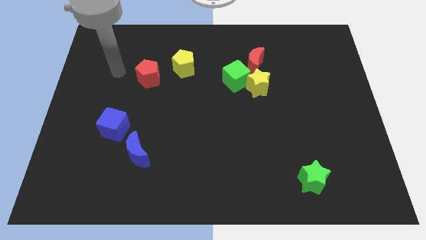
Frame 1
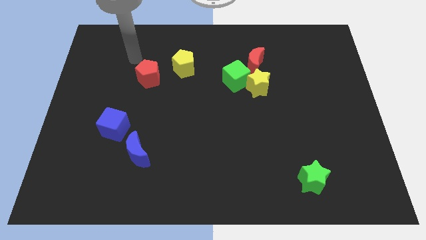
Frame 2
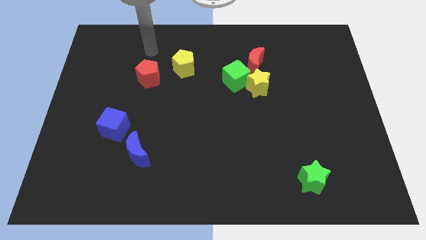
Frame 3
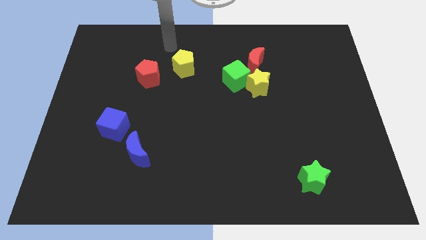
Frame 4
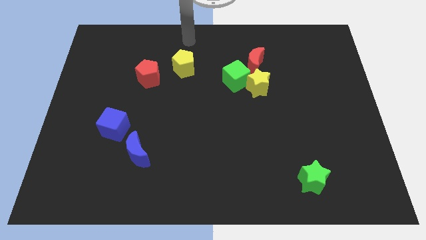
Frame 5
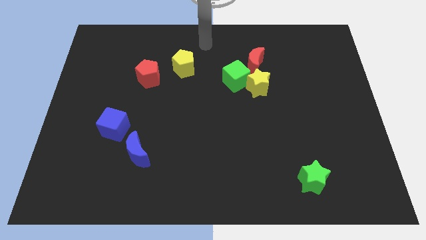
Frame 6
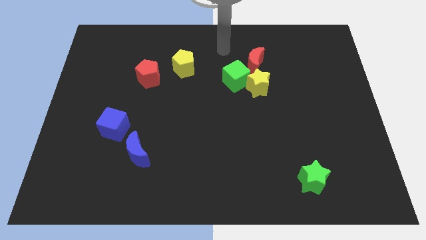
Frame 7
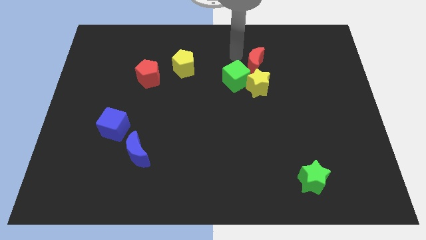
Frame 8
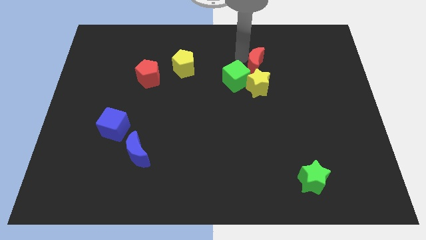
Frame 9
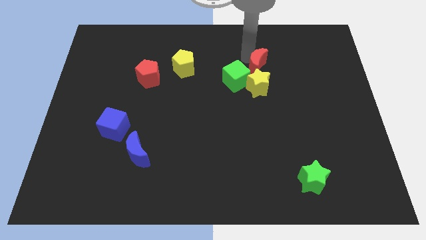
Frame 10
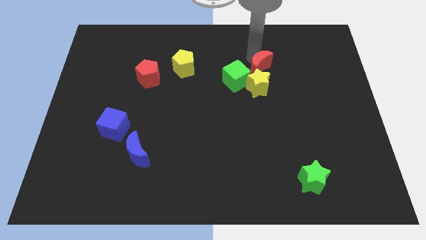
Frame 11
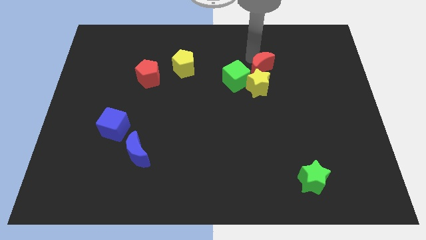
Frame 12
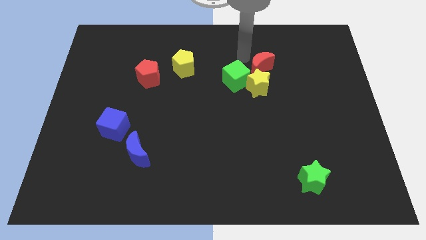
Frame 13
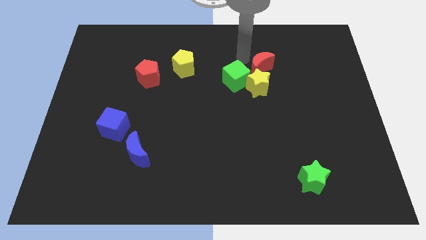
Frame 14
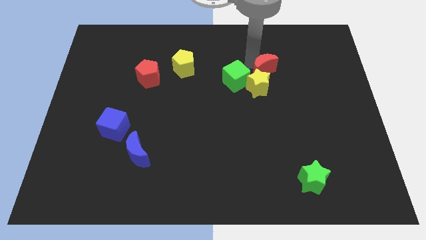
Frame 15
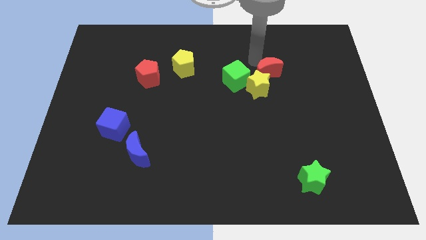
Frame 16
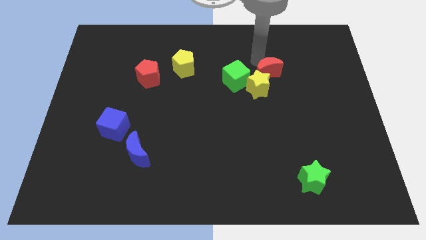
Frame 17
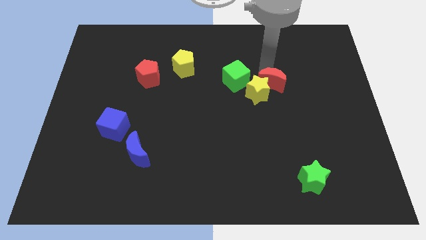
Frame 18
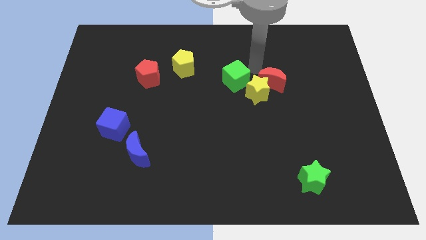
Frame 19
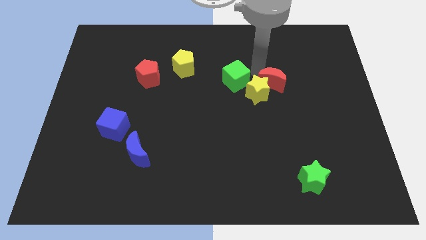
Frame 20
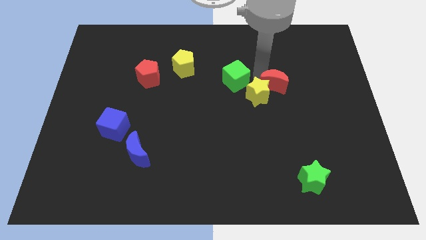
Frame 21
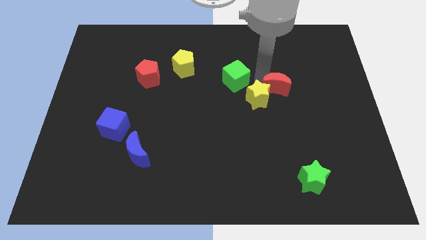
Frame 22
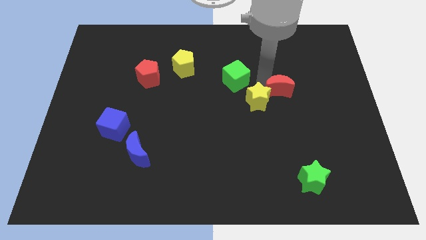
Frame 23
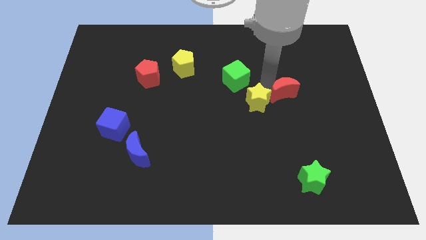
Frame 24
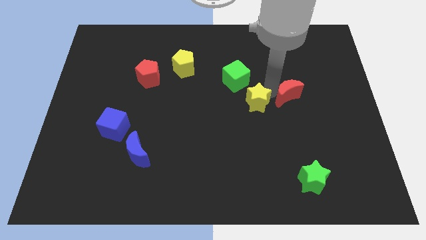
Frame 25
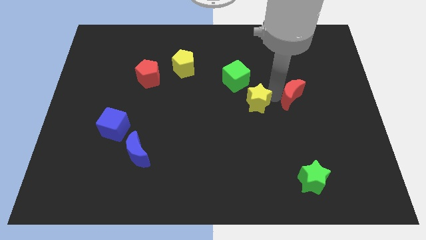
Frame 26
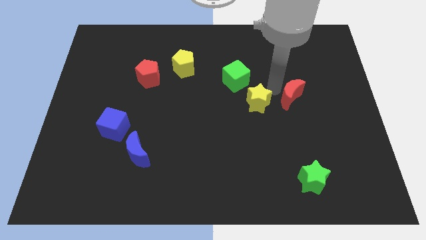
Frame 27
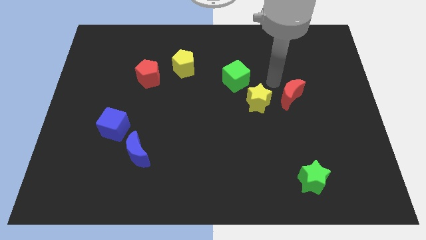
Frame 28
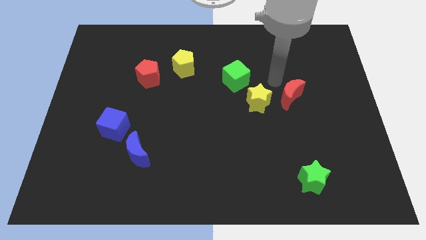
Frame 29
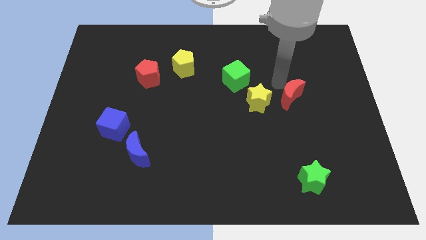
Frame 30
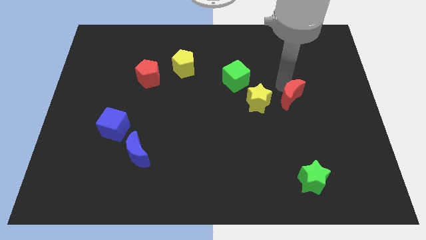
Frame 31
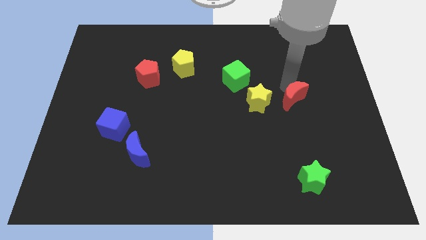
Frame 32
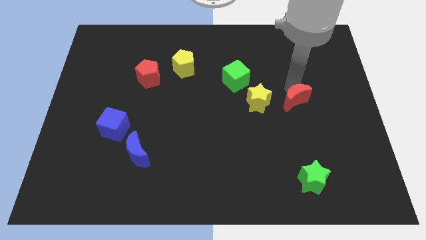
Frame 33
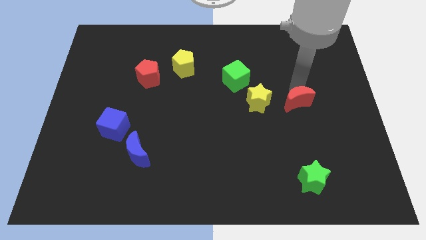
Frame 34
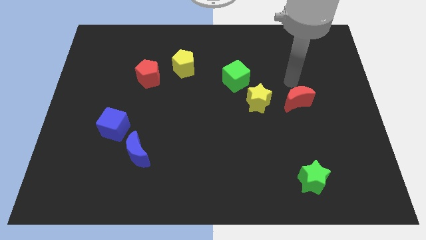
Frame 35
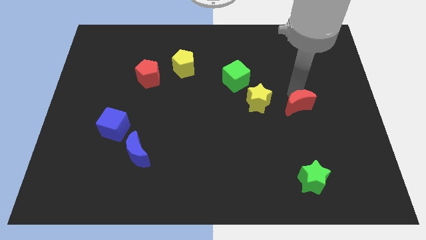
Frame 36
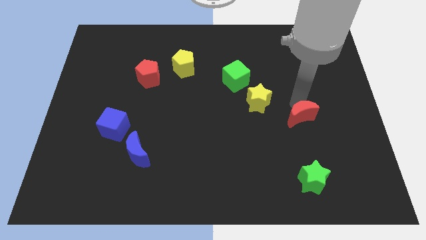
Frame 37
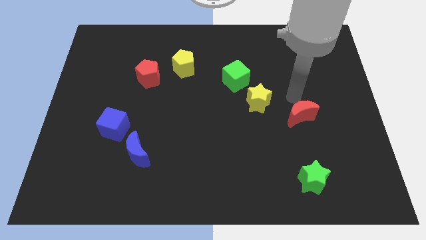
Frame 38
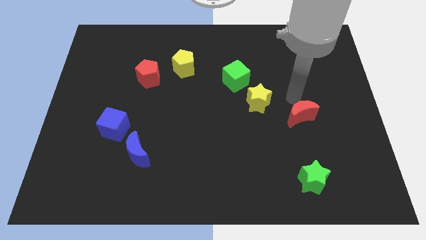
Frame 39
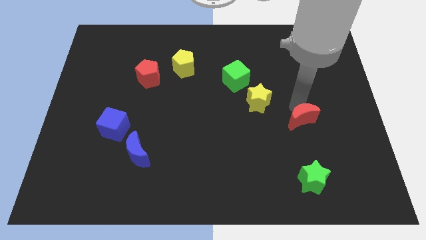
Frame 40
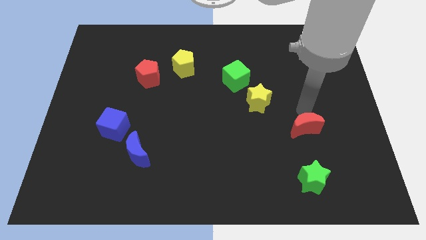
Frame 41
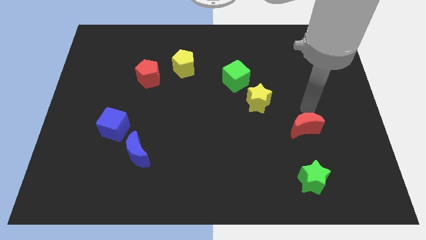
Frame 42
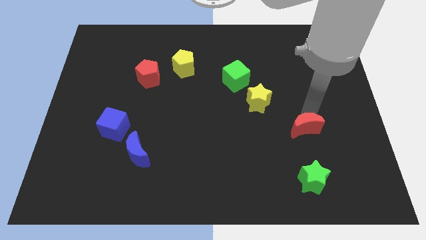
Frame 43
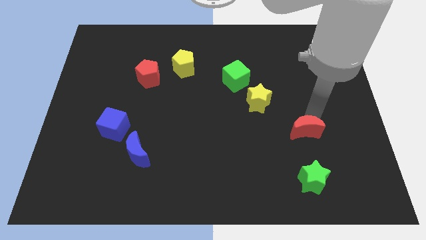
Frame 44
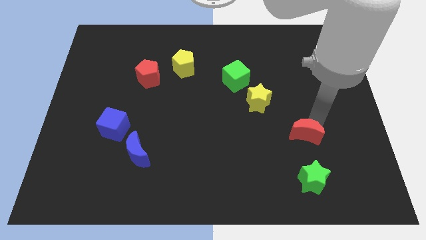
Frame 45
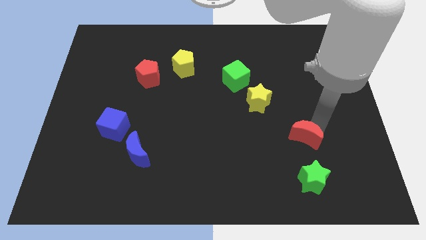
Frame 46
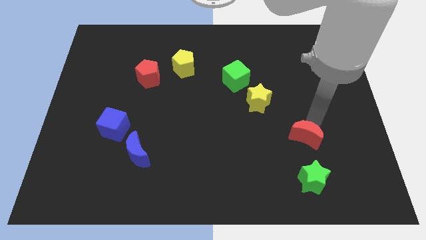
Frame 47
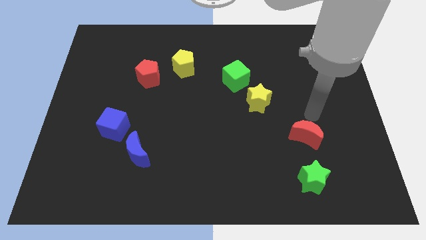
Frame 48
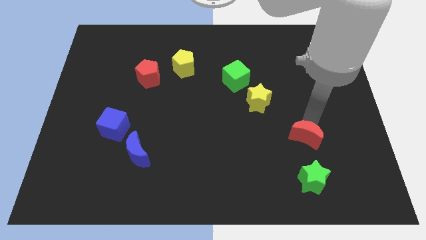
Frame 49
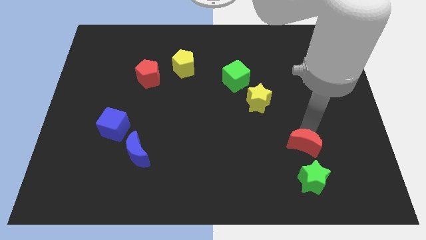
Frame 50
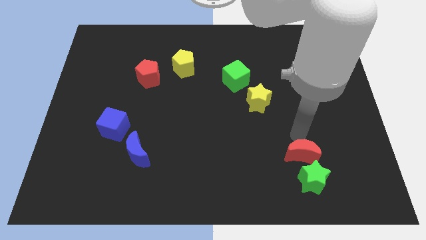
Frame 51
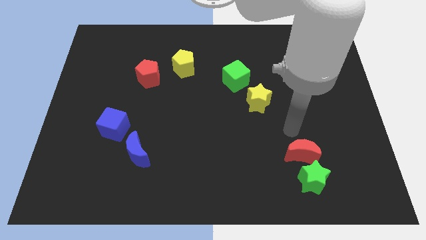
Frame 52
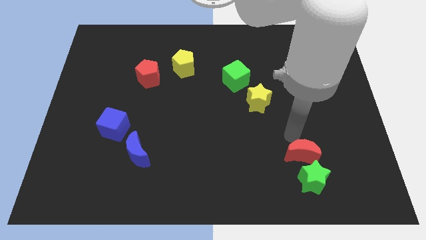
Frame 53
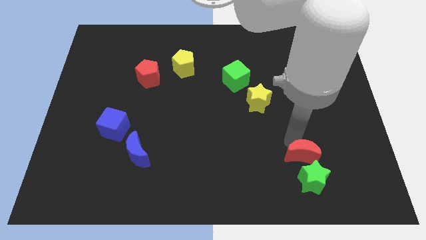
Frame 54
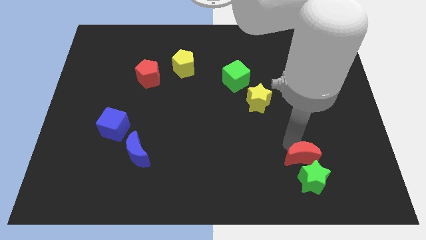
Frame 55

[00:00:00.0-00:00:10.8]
move the red moon close to the green star

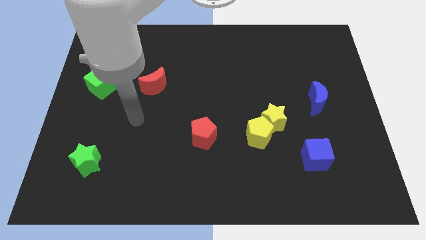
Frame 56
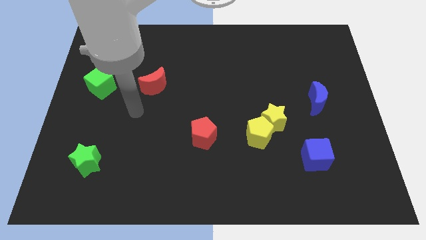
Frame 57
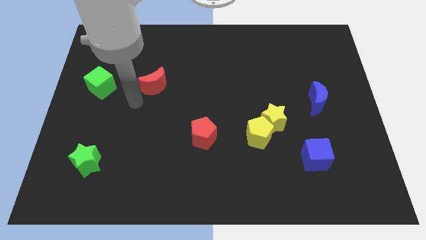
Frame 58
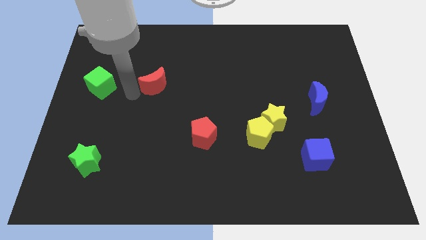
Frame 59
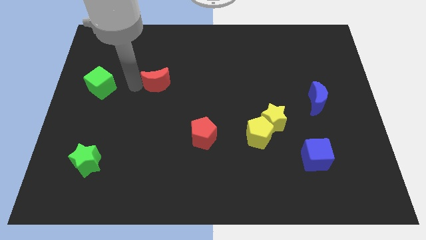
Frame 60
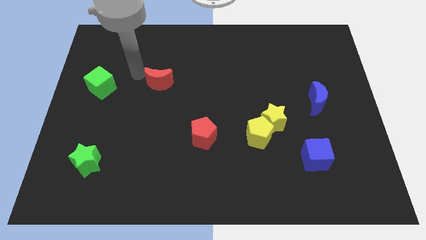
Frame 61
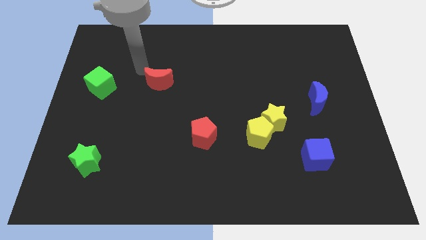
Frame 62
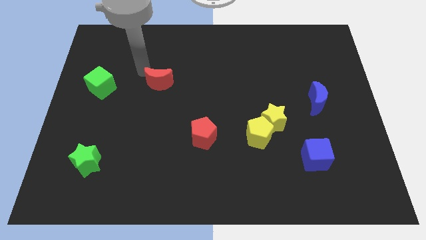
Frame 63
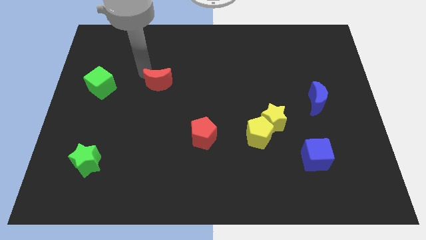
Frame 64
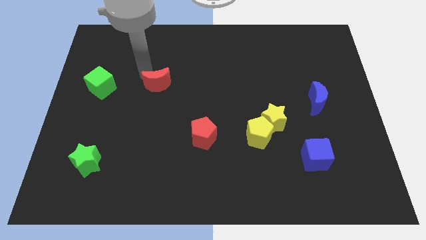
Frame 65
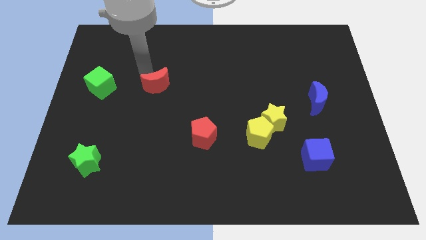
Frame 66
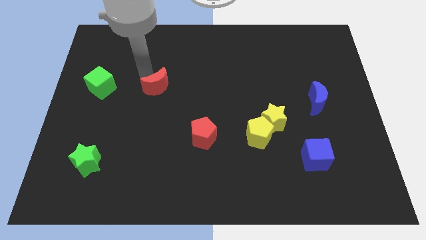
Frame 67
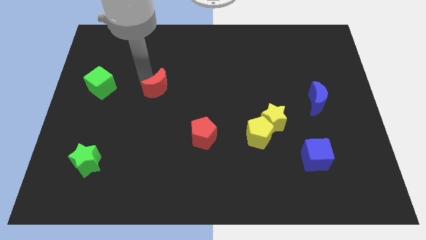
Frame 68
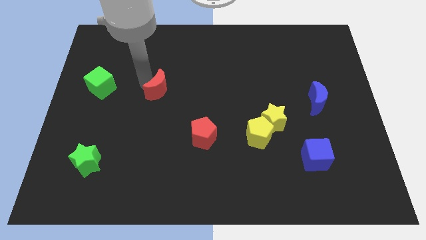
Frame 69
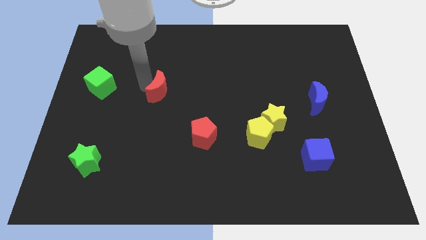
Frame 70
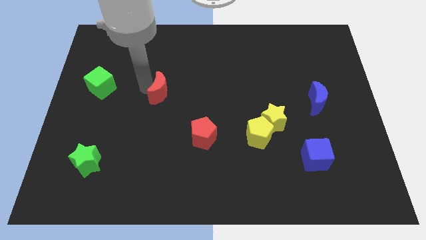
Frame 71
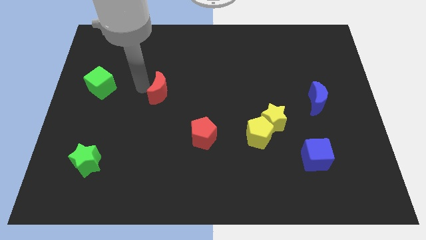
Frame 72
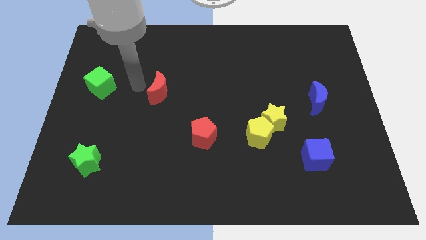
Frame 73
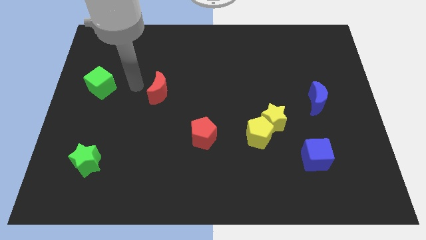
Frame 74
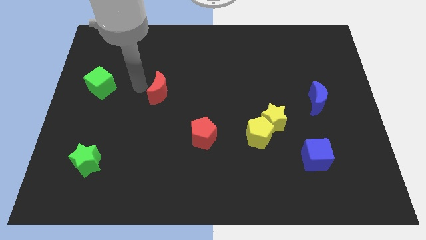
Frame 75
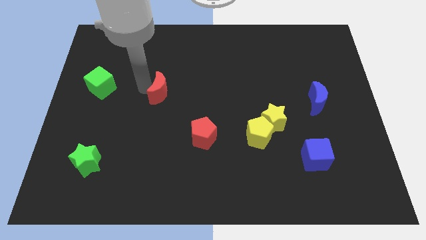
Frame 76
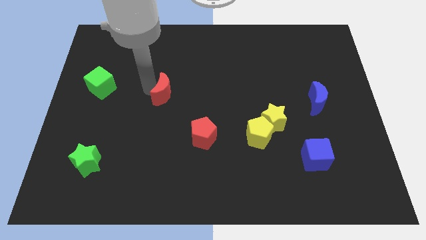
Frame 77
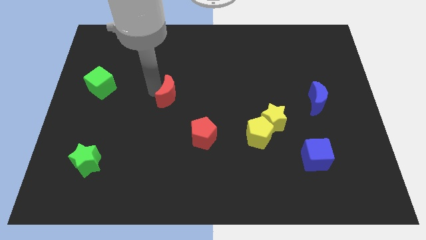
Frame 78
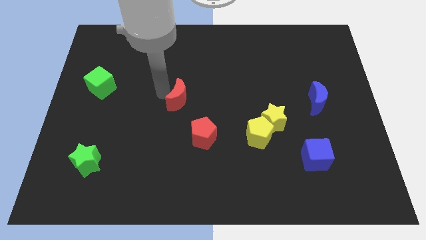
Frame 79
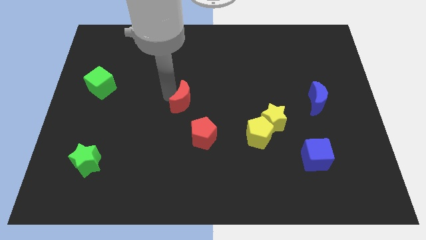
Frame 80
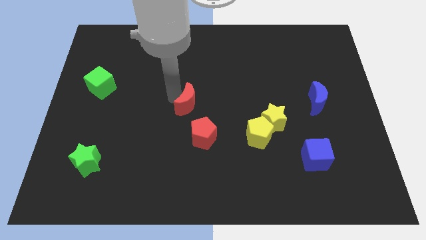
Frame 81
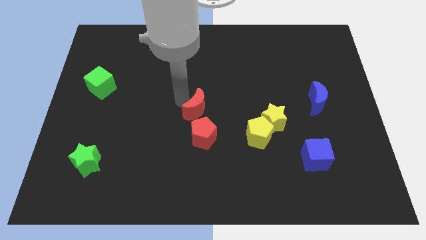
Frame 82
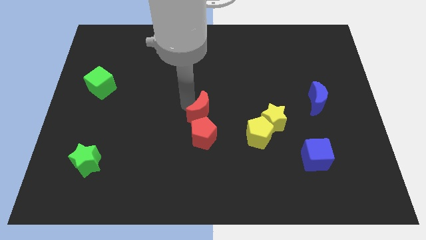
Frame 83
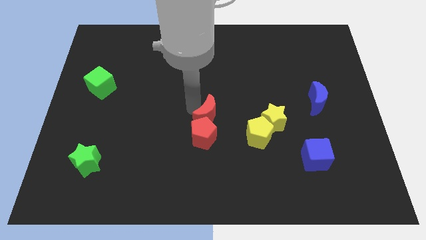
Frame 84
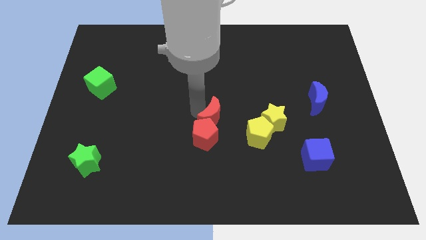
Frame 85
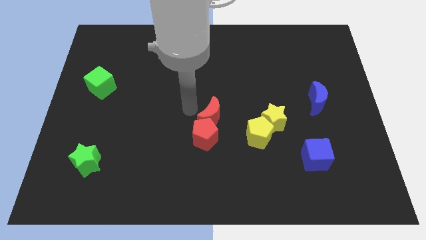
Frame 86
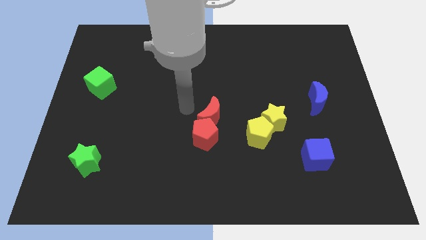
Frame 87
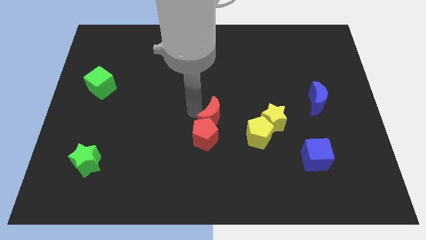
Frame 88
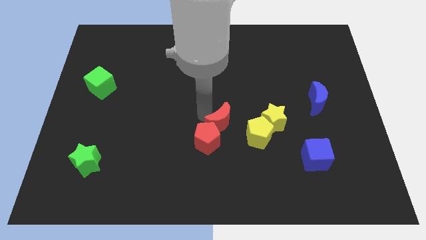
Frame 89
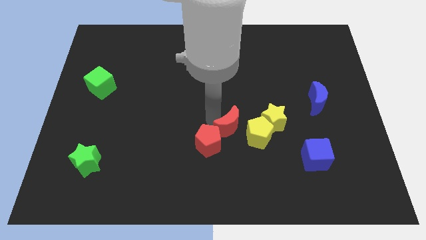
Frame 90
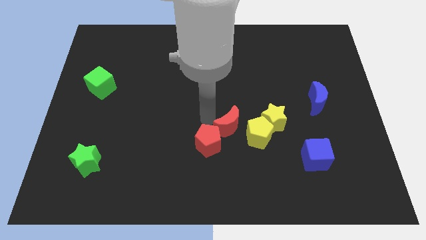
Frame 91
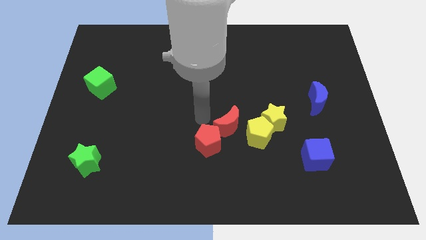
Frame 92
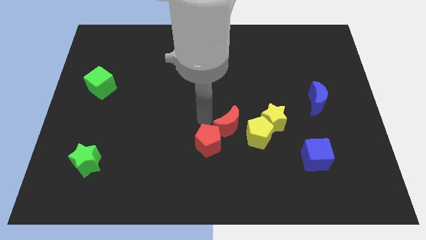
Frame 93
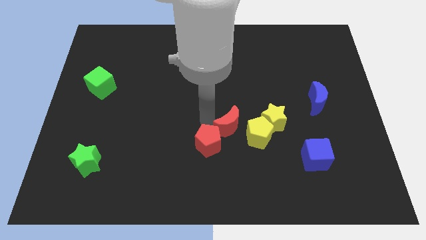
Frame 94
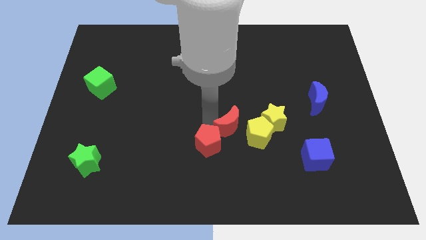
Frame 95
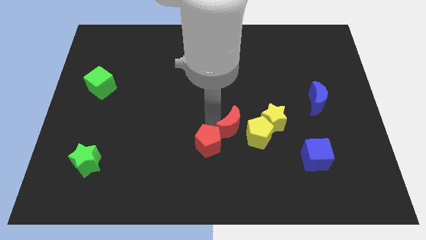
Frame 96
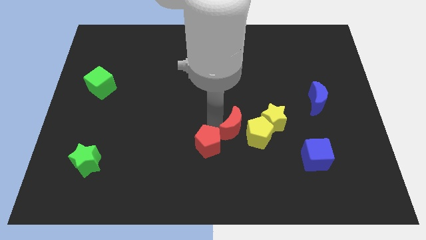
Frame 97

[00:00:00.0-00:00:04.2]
push the red moon next to the yellow pentagon
